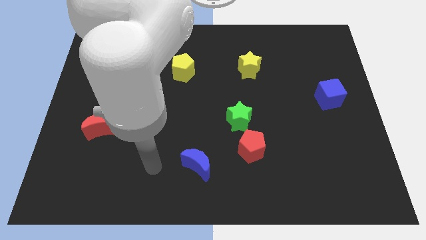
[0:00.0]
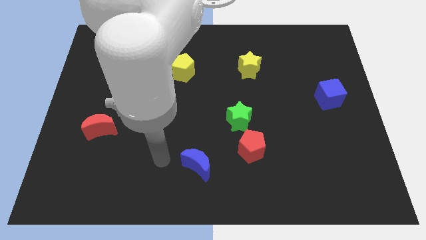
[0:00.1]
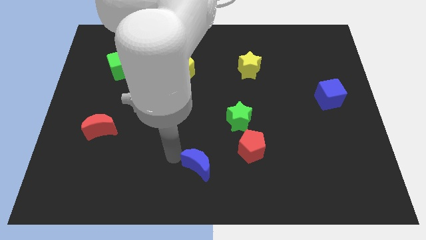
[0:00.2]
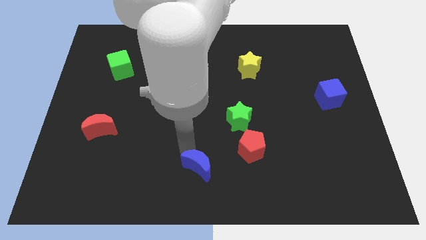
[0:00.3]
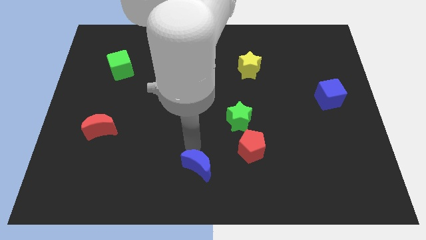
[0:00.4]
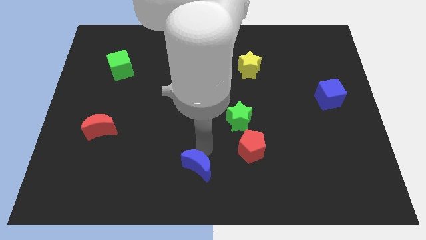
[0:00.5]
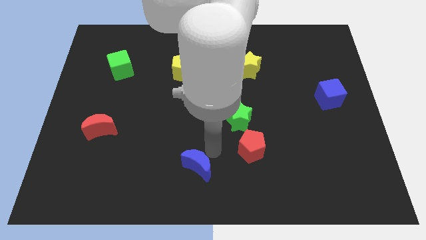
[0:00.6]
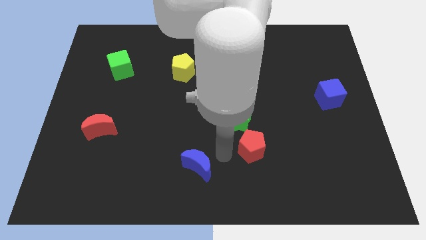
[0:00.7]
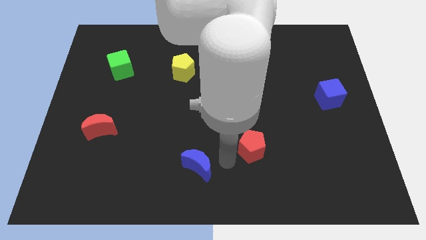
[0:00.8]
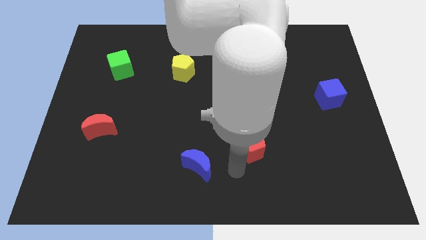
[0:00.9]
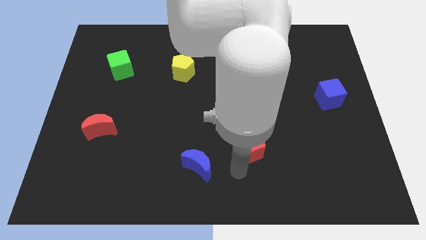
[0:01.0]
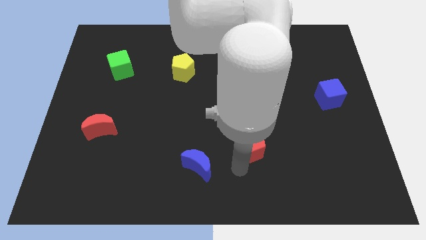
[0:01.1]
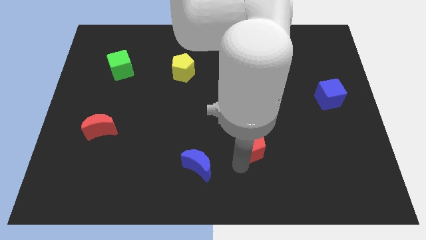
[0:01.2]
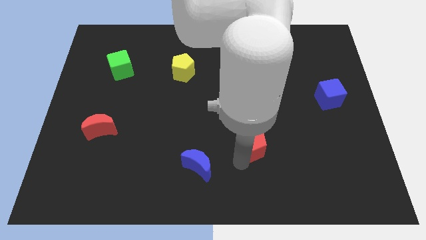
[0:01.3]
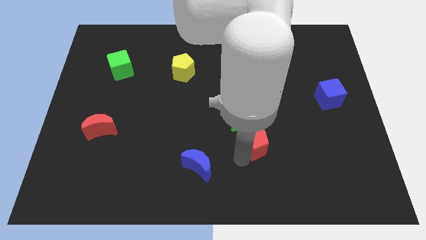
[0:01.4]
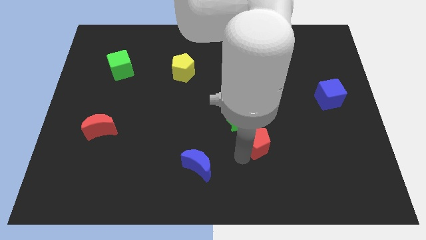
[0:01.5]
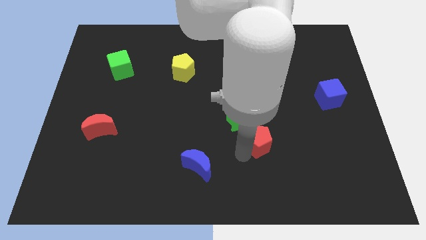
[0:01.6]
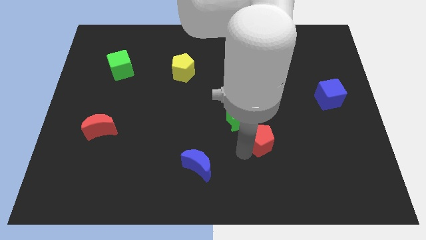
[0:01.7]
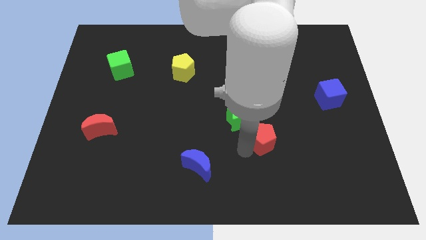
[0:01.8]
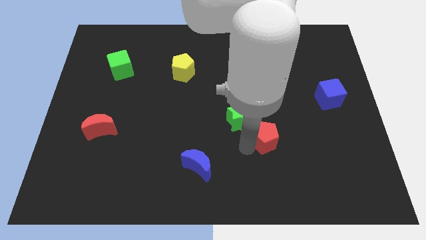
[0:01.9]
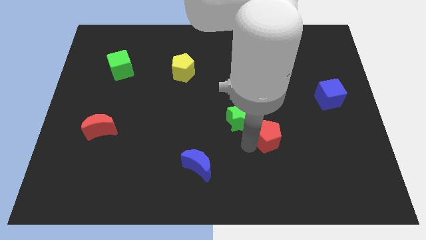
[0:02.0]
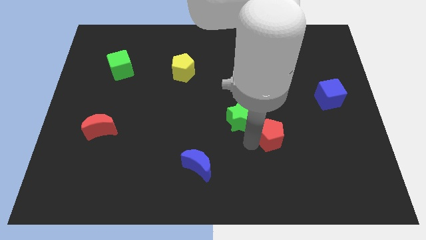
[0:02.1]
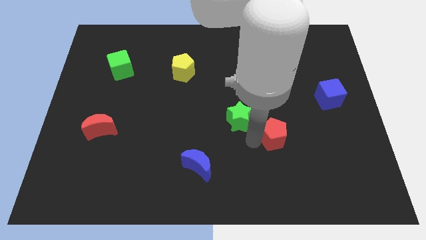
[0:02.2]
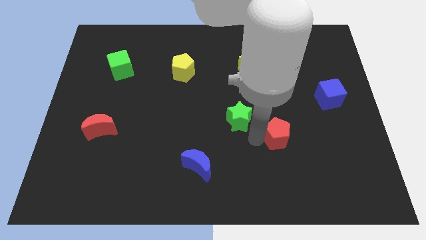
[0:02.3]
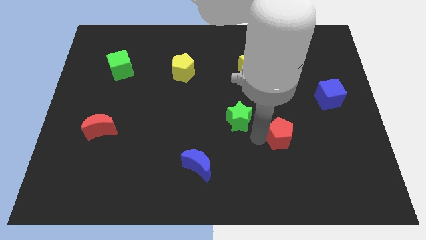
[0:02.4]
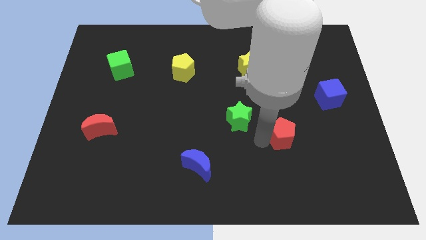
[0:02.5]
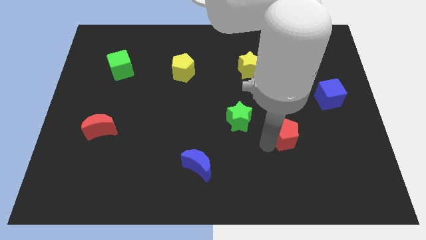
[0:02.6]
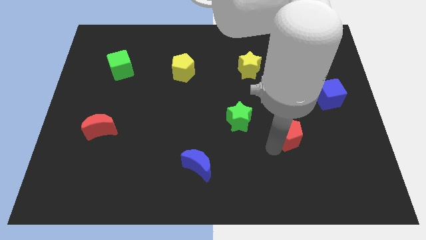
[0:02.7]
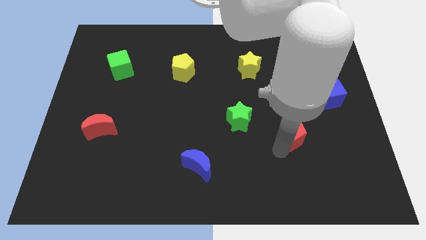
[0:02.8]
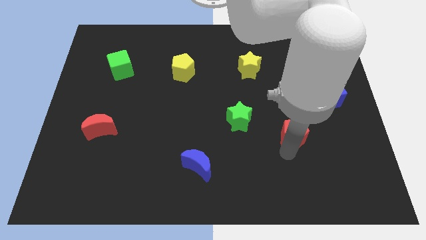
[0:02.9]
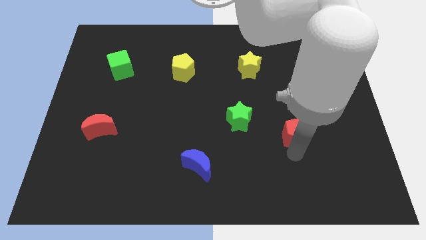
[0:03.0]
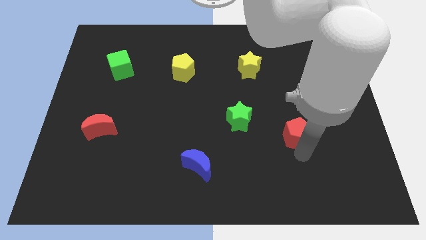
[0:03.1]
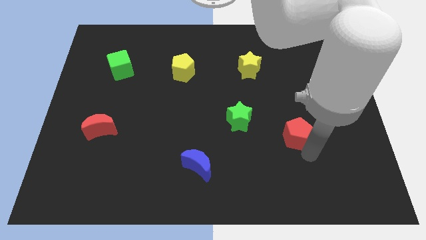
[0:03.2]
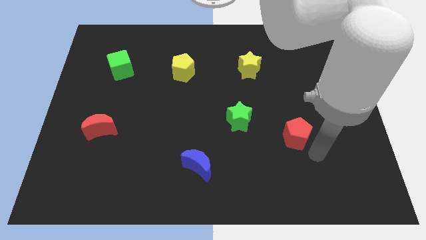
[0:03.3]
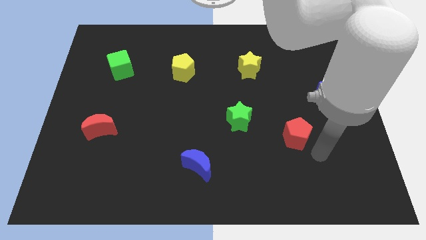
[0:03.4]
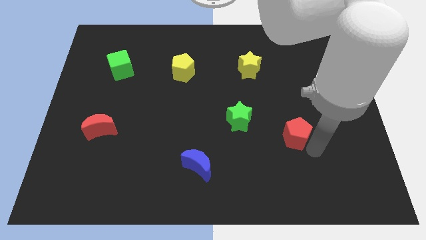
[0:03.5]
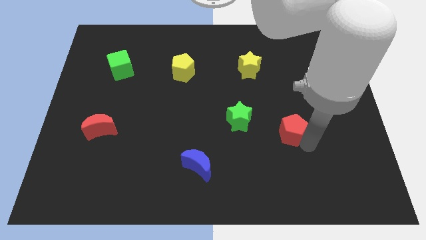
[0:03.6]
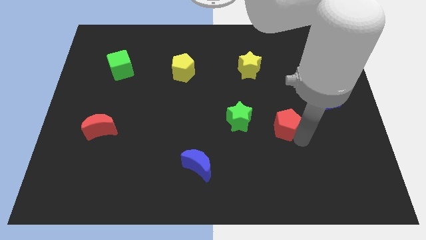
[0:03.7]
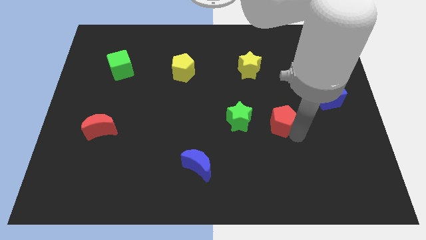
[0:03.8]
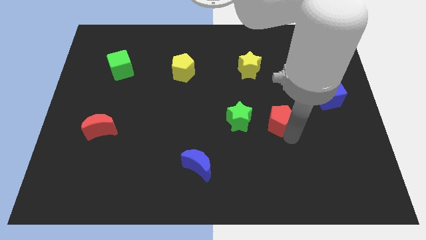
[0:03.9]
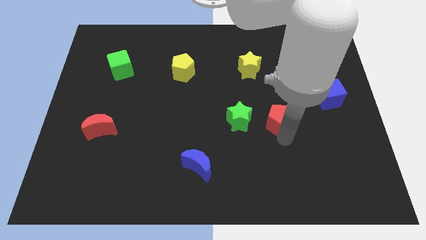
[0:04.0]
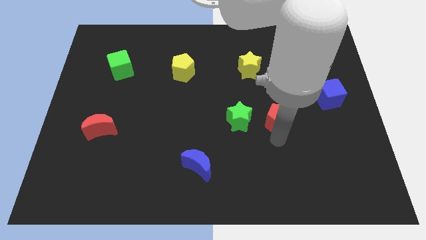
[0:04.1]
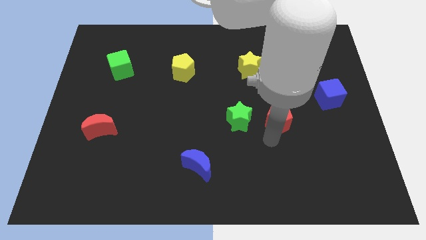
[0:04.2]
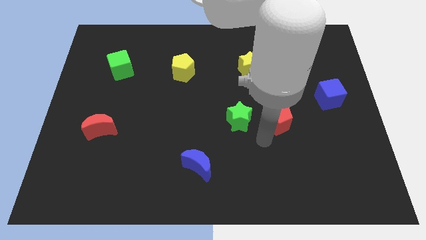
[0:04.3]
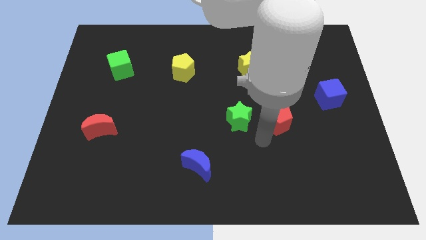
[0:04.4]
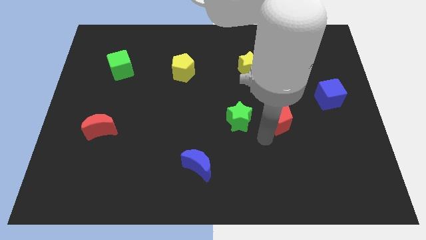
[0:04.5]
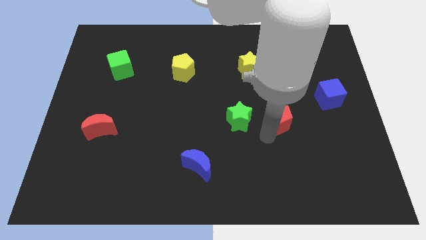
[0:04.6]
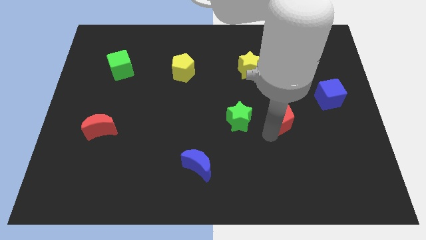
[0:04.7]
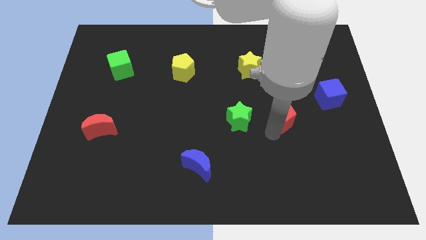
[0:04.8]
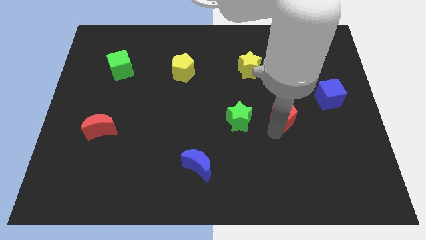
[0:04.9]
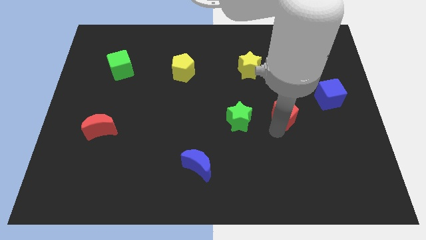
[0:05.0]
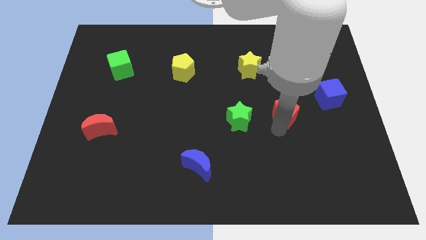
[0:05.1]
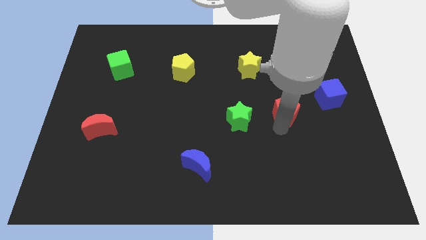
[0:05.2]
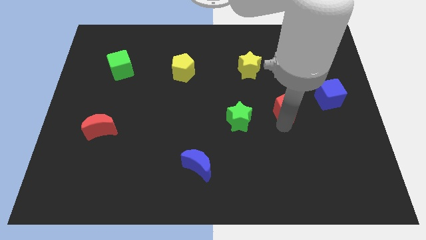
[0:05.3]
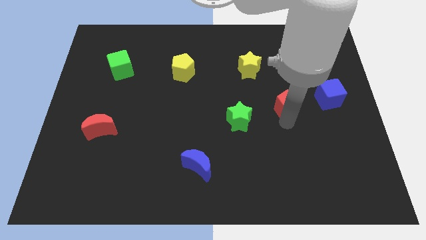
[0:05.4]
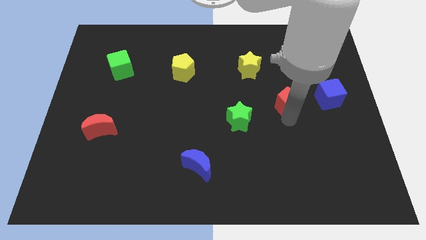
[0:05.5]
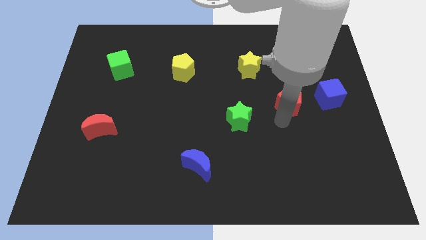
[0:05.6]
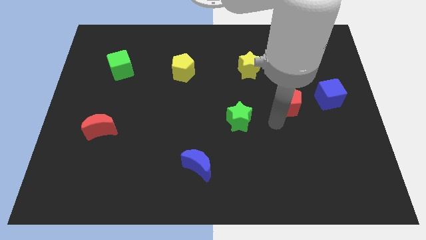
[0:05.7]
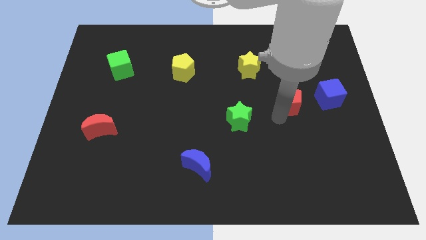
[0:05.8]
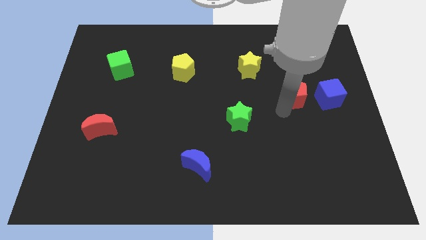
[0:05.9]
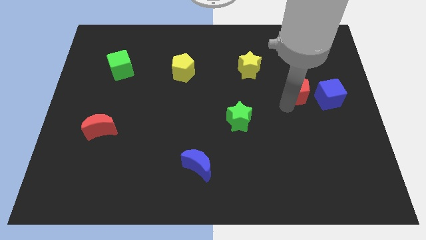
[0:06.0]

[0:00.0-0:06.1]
slide the red pentagon to the top left side of the blue cube

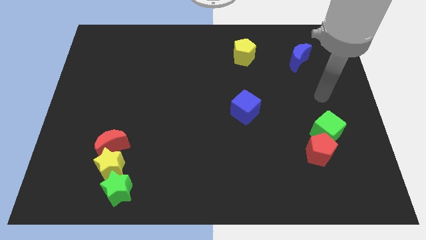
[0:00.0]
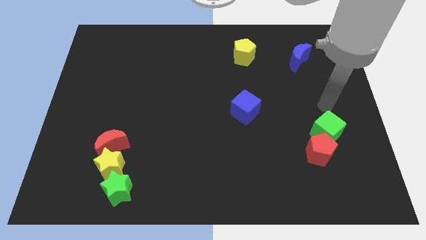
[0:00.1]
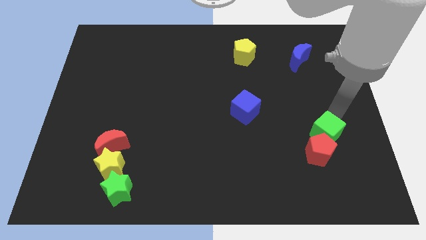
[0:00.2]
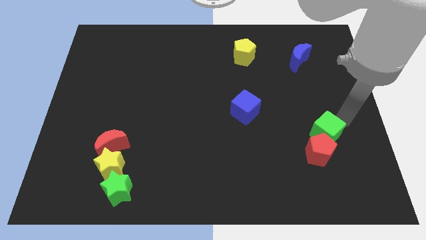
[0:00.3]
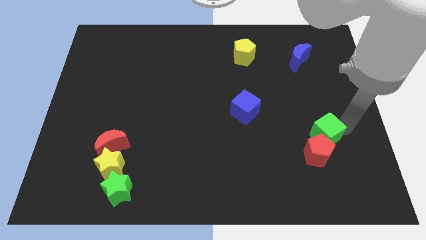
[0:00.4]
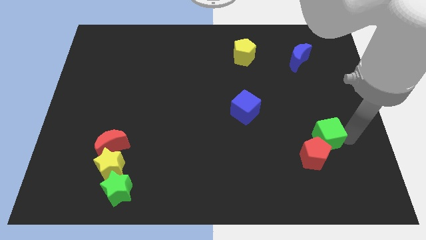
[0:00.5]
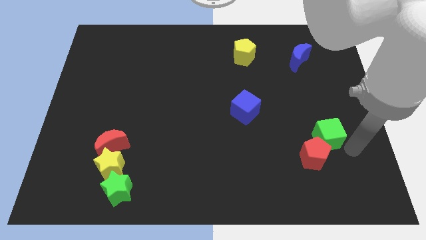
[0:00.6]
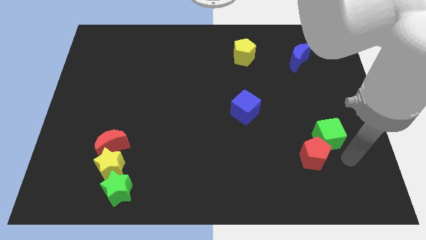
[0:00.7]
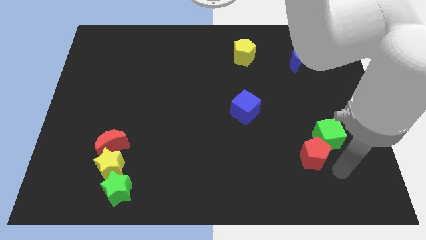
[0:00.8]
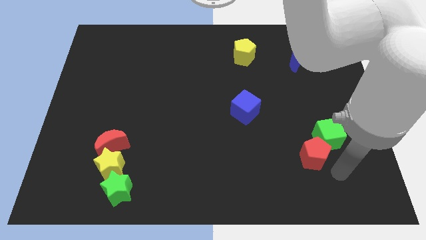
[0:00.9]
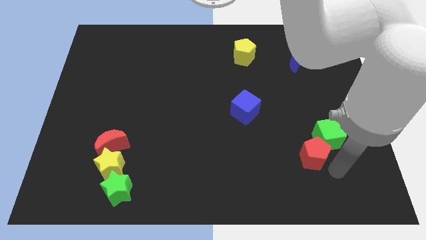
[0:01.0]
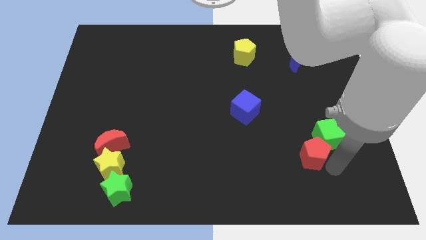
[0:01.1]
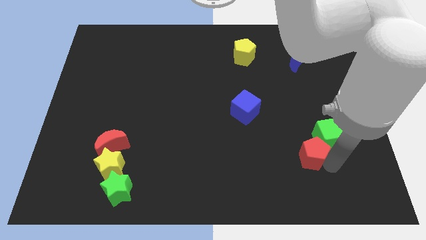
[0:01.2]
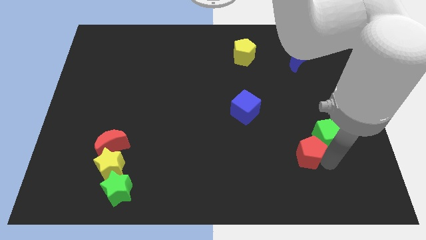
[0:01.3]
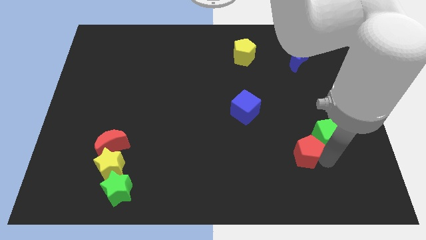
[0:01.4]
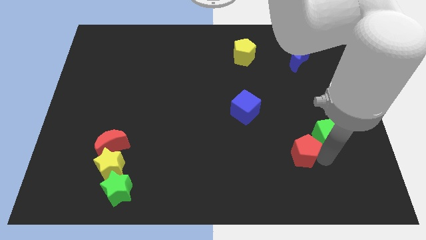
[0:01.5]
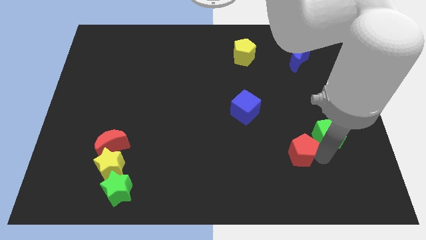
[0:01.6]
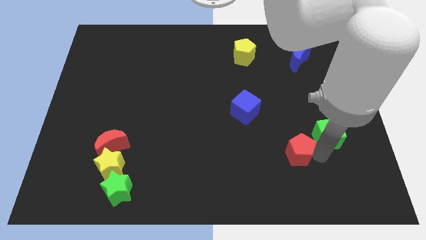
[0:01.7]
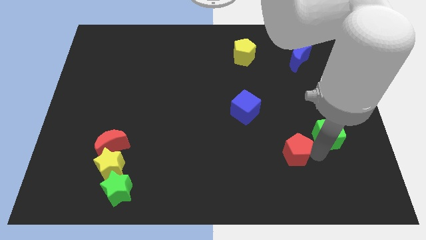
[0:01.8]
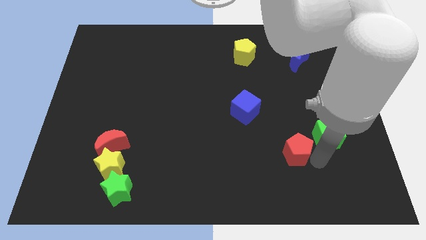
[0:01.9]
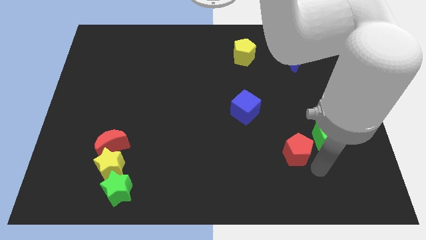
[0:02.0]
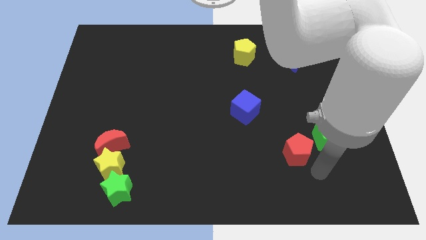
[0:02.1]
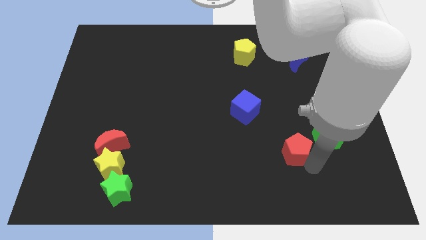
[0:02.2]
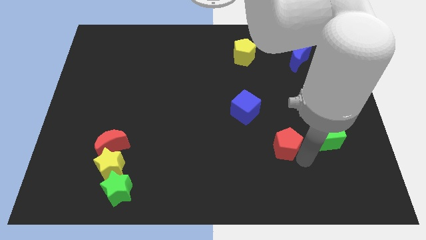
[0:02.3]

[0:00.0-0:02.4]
put the red pentagon diagonally down and to the right of the blue cube
